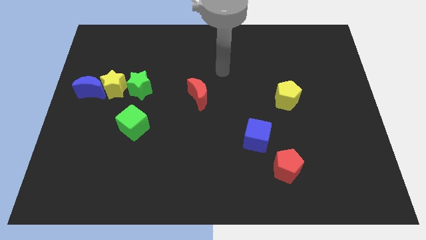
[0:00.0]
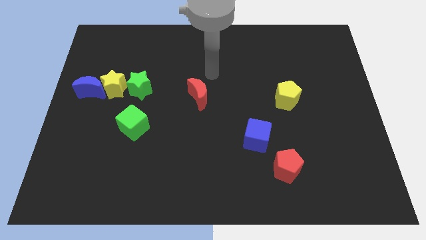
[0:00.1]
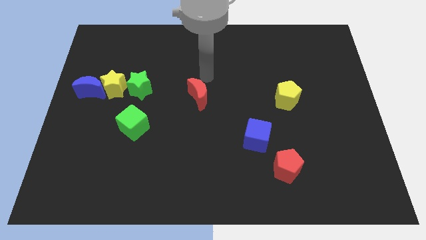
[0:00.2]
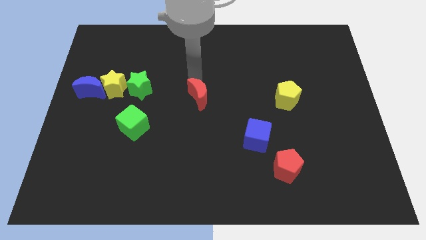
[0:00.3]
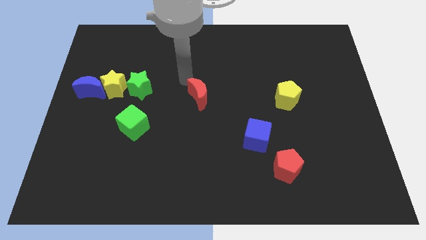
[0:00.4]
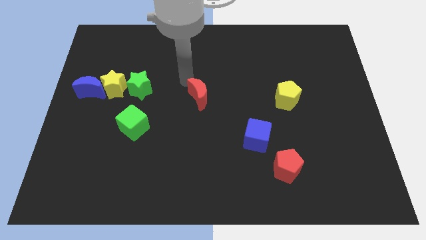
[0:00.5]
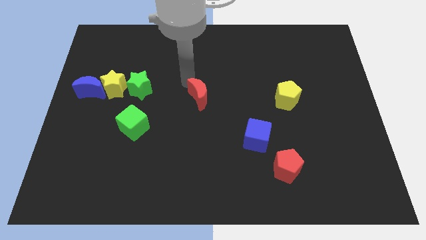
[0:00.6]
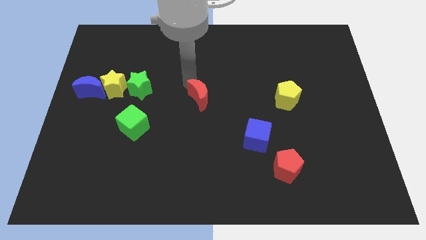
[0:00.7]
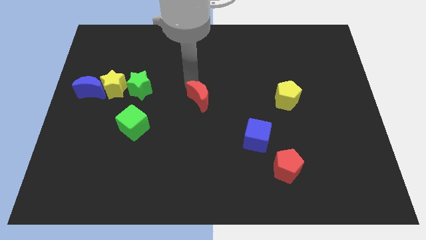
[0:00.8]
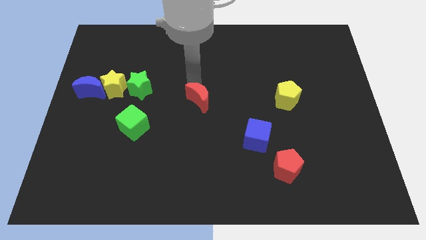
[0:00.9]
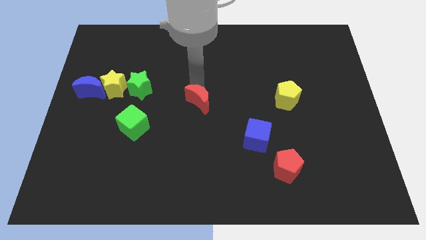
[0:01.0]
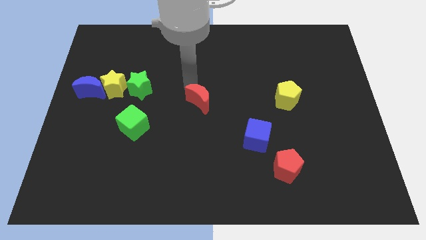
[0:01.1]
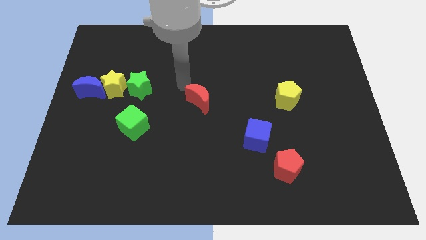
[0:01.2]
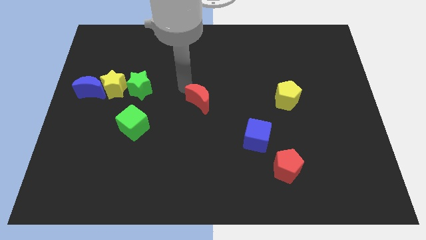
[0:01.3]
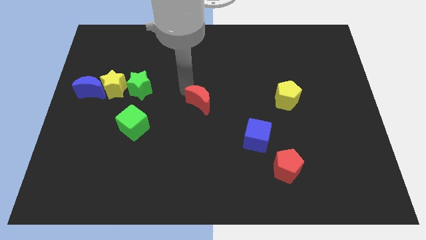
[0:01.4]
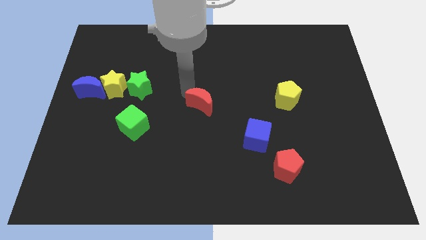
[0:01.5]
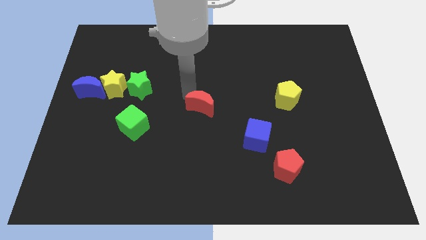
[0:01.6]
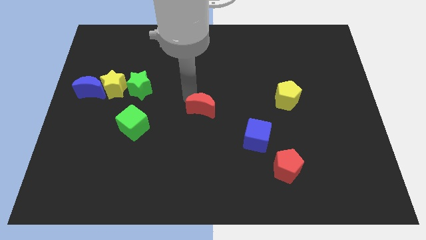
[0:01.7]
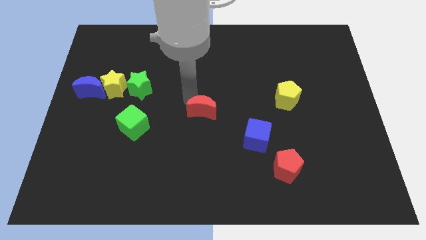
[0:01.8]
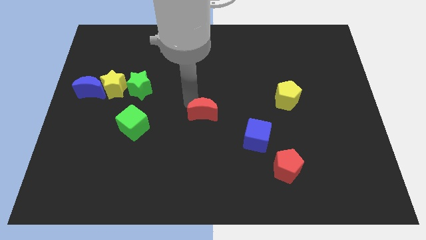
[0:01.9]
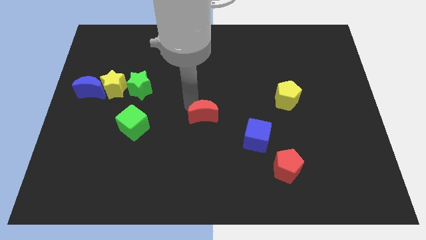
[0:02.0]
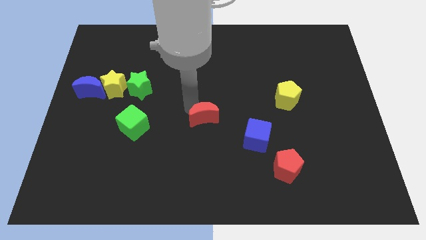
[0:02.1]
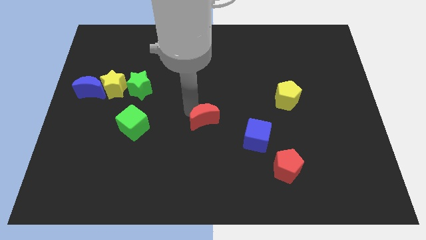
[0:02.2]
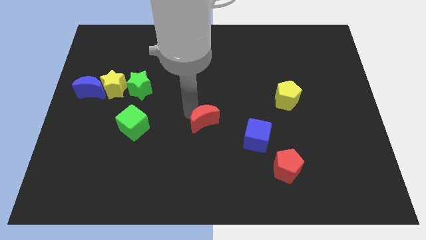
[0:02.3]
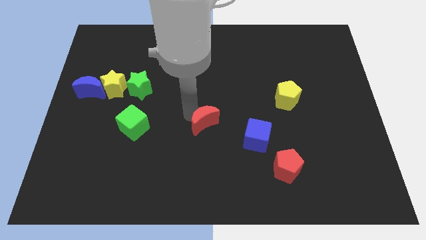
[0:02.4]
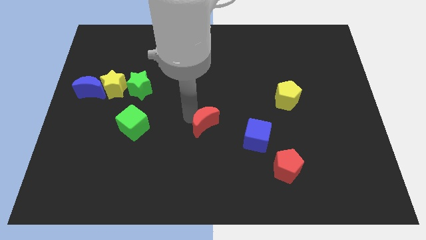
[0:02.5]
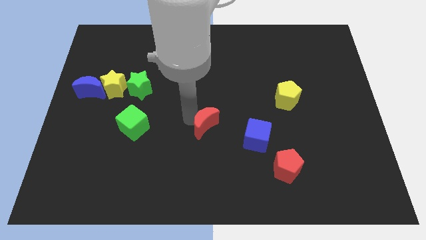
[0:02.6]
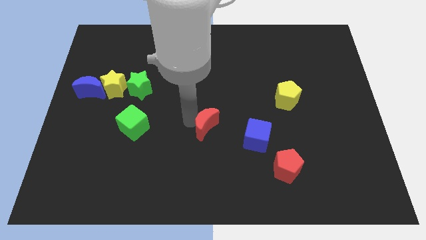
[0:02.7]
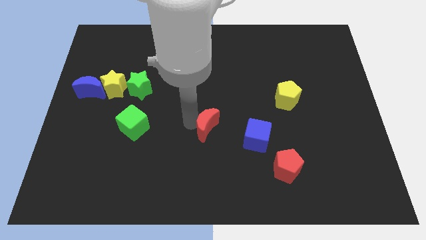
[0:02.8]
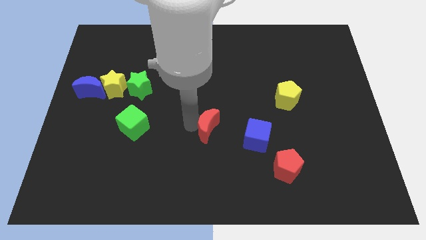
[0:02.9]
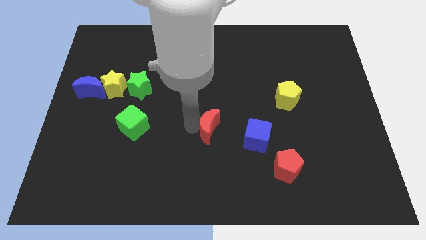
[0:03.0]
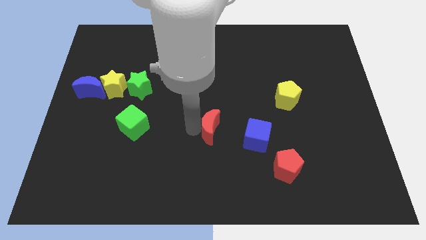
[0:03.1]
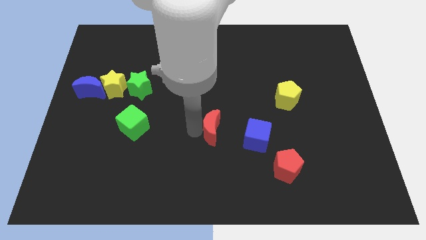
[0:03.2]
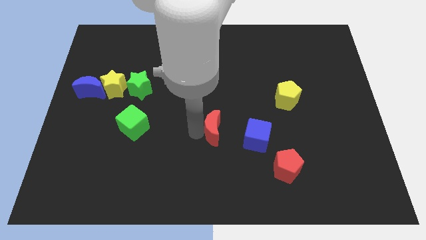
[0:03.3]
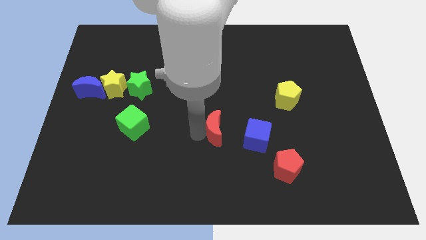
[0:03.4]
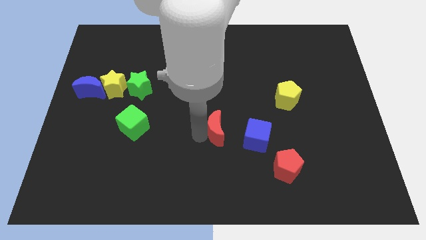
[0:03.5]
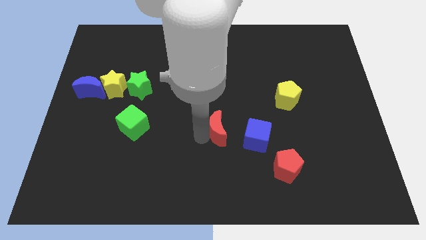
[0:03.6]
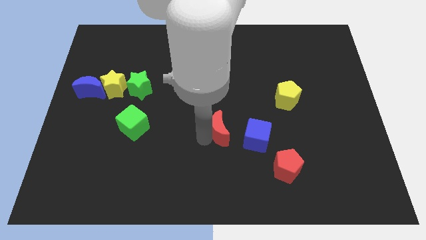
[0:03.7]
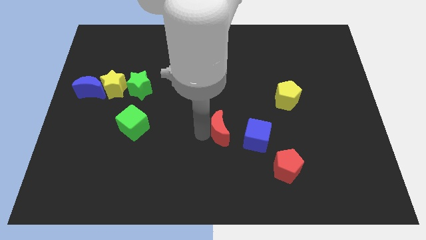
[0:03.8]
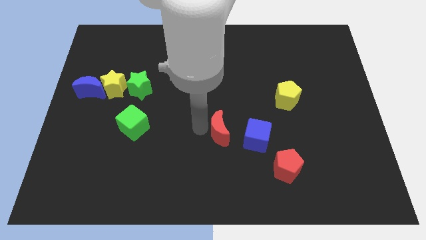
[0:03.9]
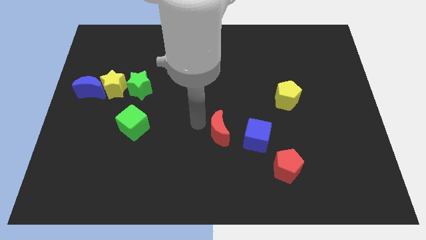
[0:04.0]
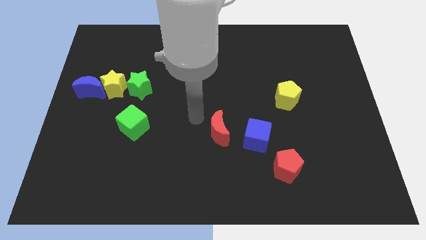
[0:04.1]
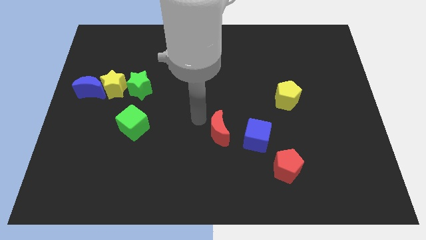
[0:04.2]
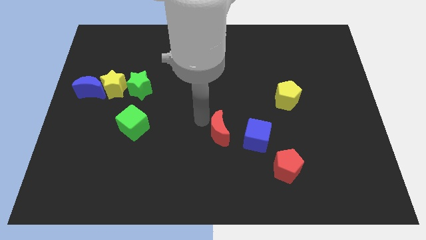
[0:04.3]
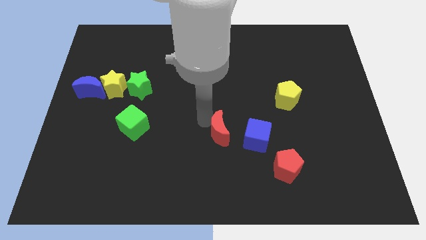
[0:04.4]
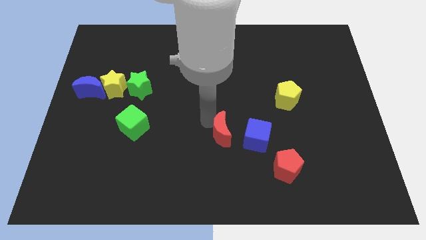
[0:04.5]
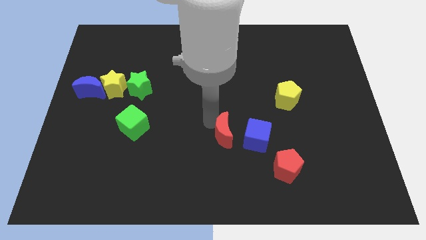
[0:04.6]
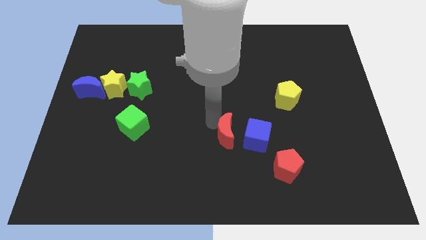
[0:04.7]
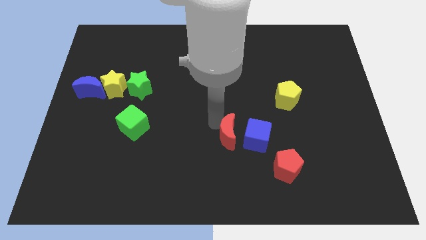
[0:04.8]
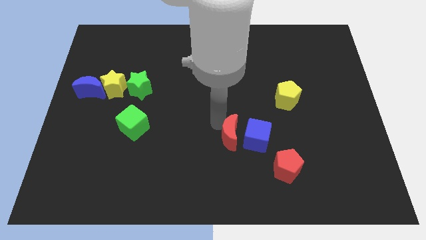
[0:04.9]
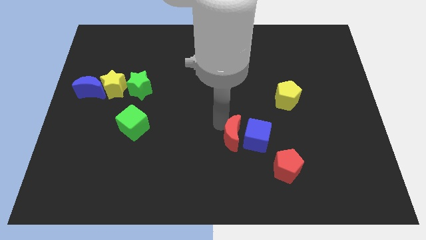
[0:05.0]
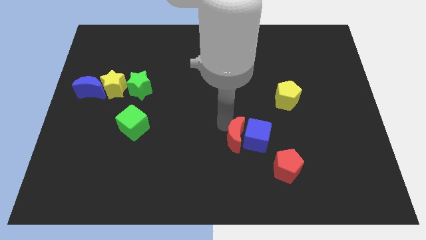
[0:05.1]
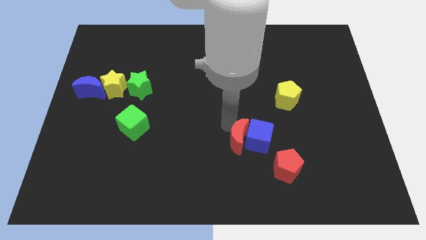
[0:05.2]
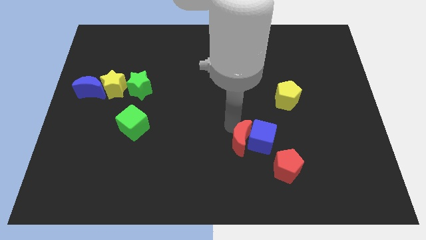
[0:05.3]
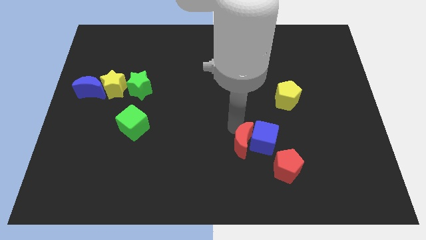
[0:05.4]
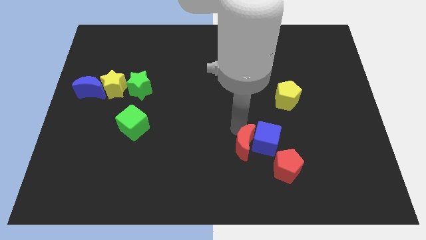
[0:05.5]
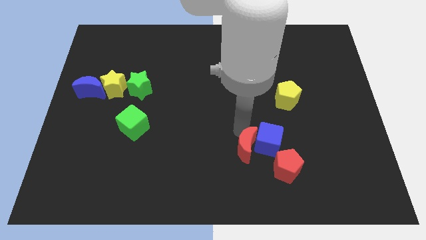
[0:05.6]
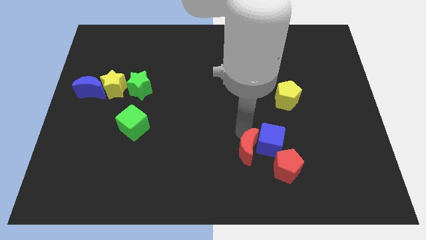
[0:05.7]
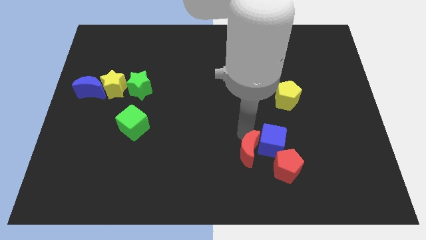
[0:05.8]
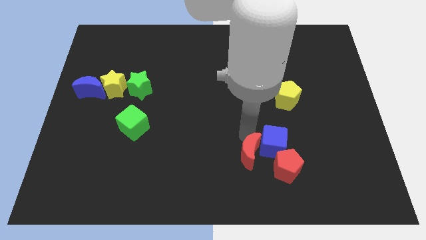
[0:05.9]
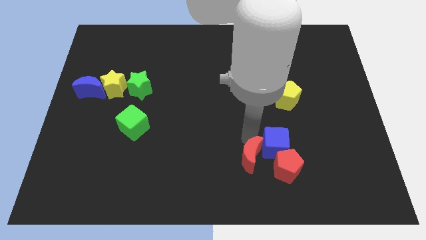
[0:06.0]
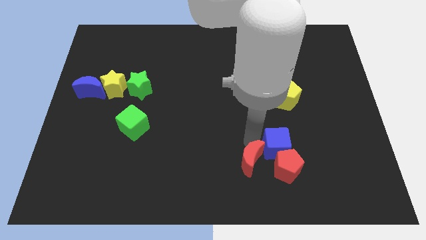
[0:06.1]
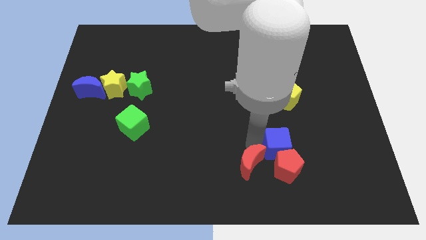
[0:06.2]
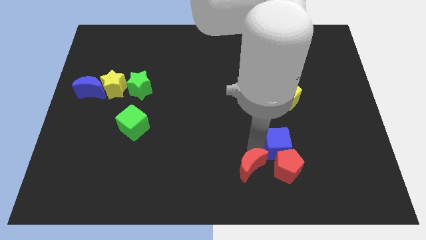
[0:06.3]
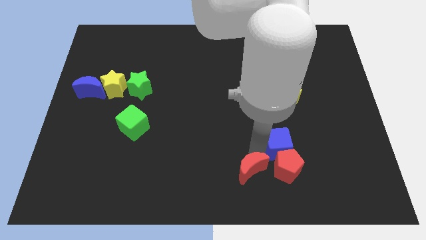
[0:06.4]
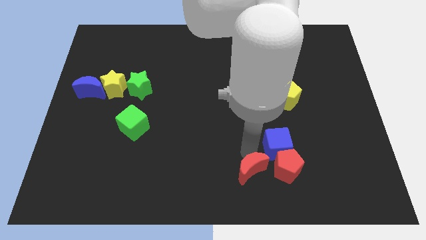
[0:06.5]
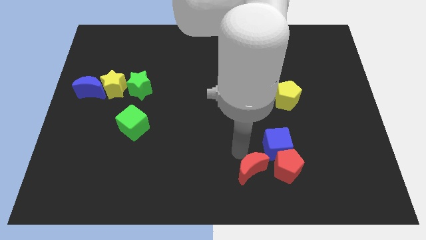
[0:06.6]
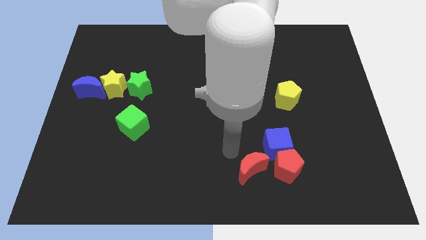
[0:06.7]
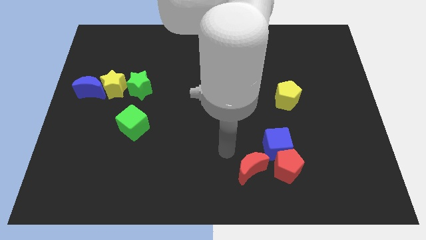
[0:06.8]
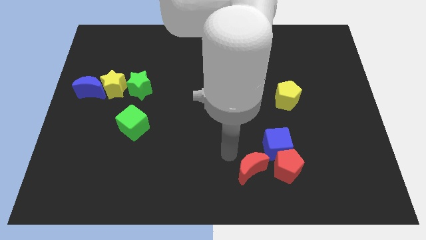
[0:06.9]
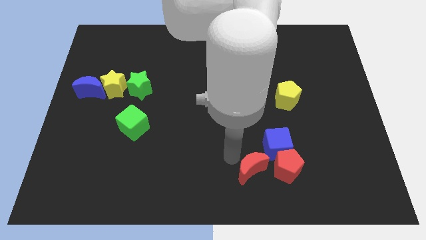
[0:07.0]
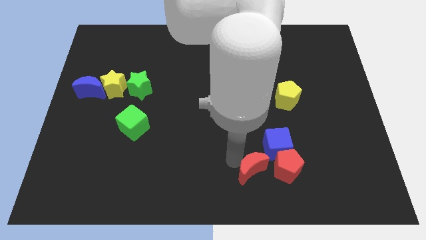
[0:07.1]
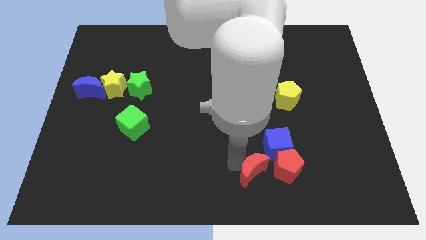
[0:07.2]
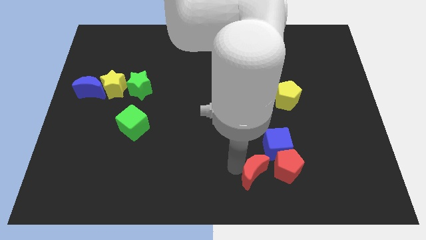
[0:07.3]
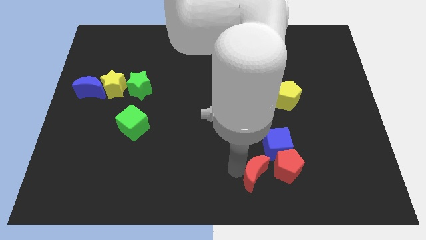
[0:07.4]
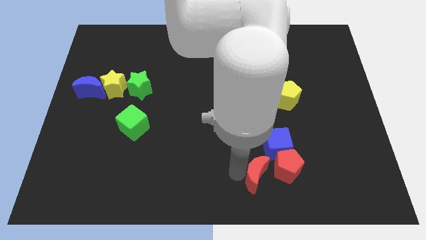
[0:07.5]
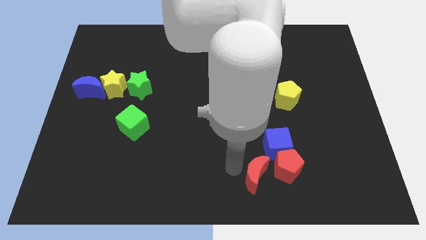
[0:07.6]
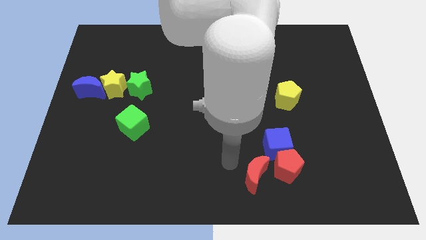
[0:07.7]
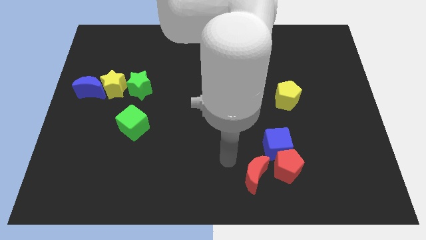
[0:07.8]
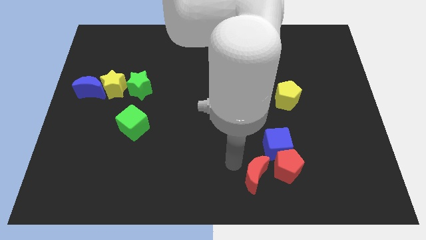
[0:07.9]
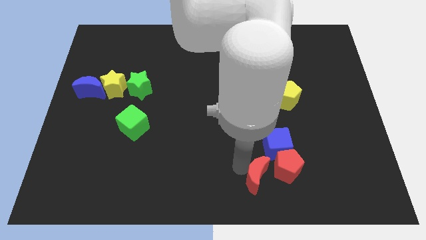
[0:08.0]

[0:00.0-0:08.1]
move the red moon to the bottom of the blue cube
